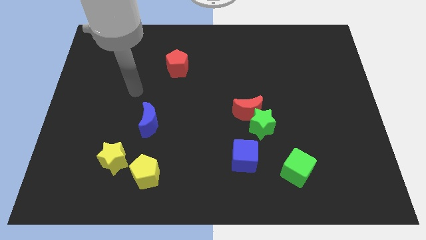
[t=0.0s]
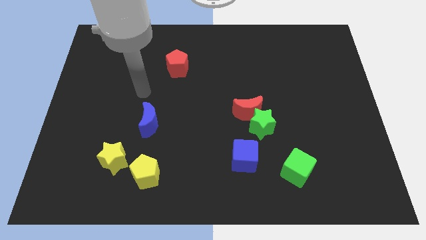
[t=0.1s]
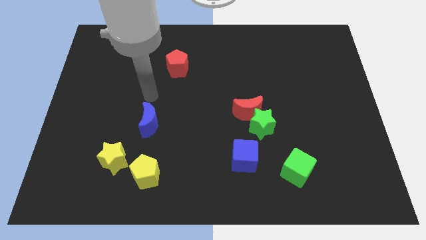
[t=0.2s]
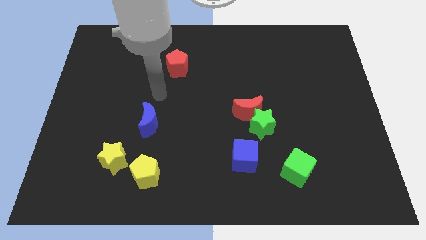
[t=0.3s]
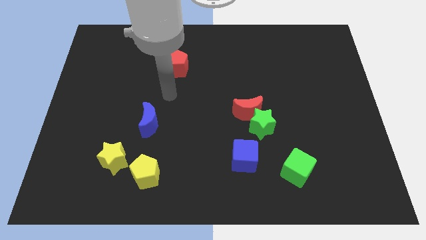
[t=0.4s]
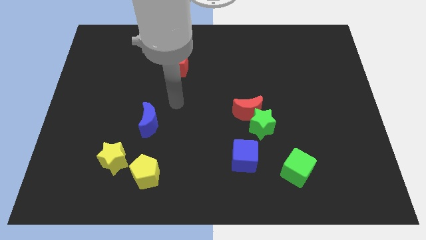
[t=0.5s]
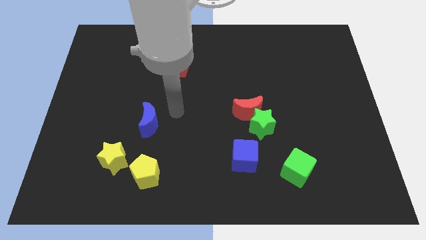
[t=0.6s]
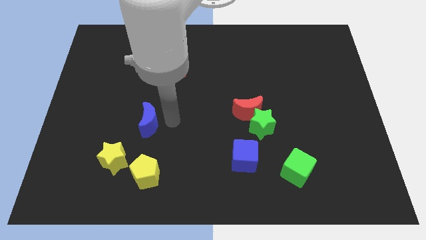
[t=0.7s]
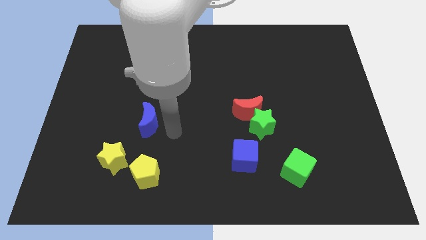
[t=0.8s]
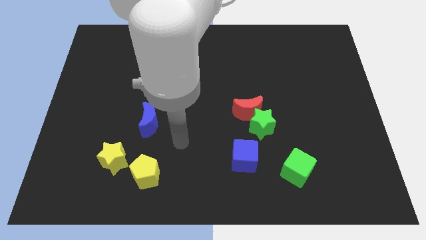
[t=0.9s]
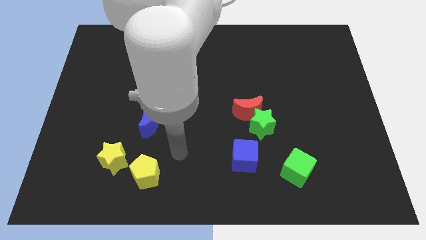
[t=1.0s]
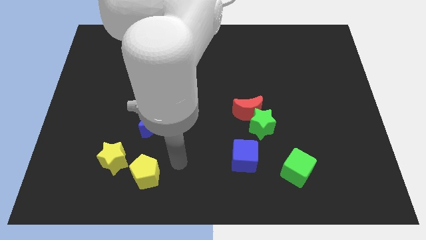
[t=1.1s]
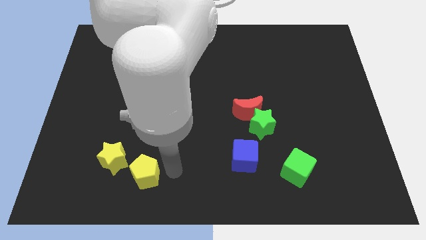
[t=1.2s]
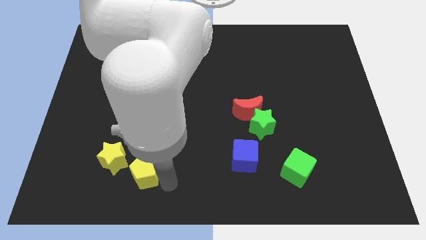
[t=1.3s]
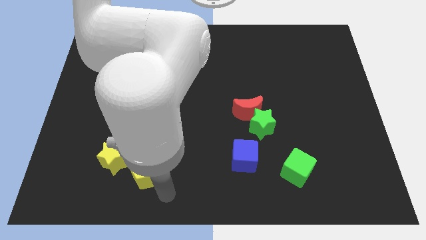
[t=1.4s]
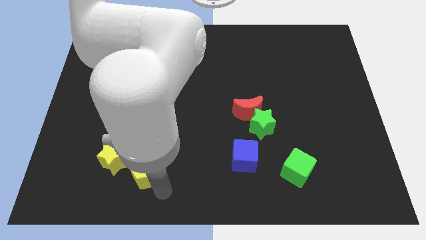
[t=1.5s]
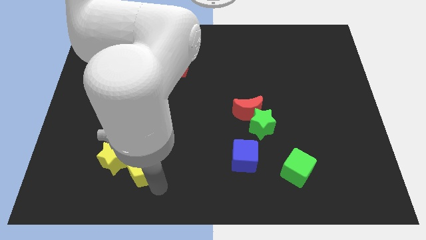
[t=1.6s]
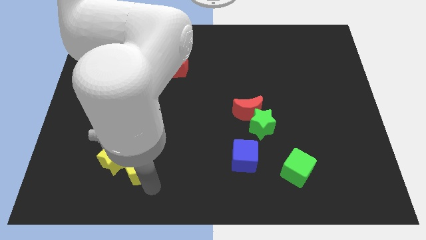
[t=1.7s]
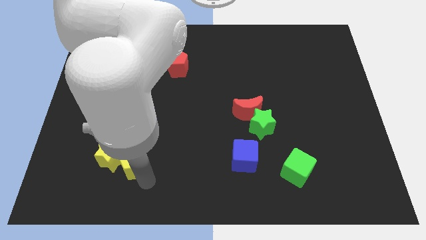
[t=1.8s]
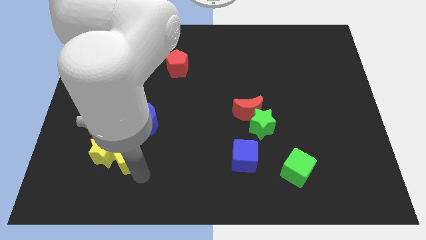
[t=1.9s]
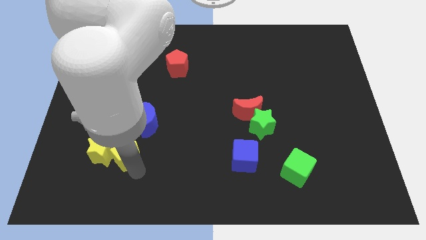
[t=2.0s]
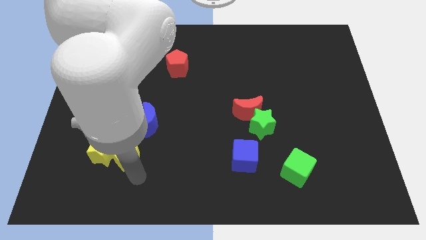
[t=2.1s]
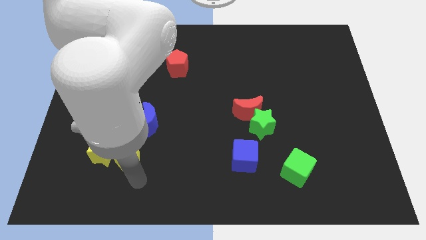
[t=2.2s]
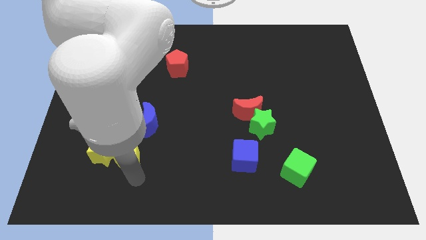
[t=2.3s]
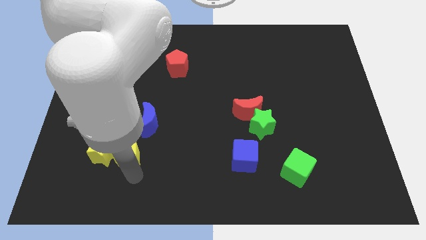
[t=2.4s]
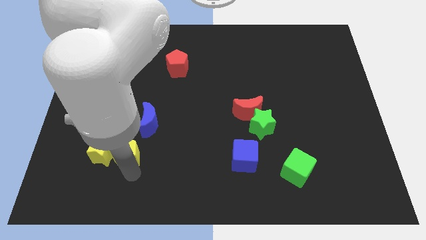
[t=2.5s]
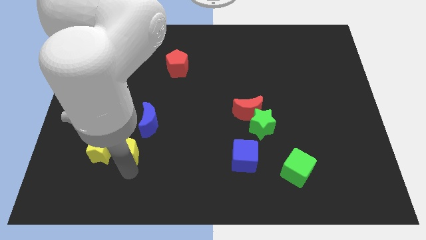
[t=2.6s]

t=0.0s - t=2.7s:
slightly move the yellow pentagon diagonally up and left

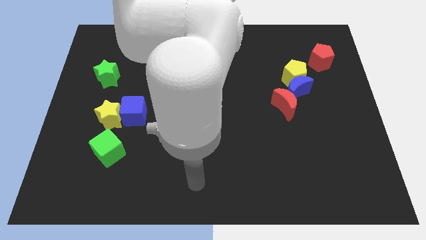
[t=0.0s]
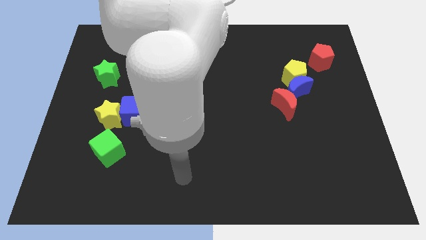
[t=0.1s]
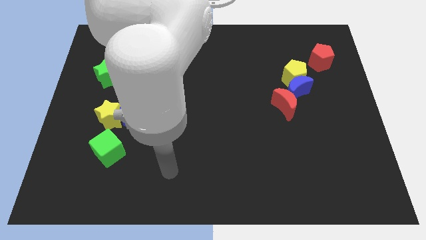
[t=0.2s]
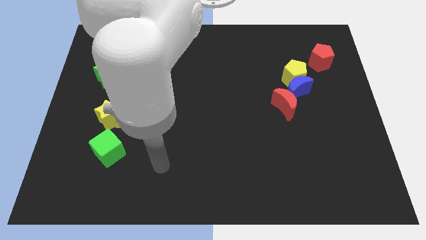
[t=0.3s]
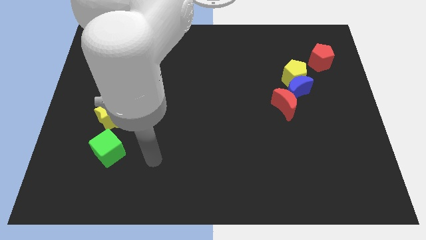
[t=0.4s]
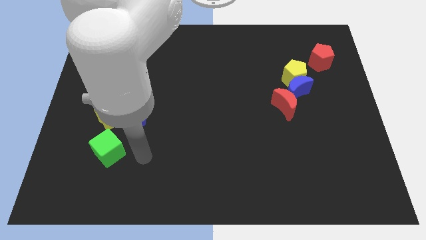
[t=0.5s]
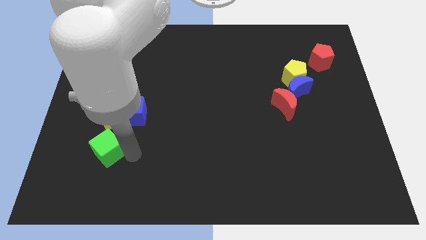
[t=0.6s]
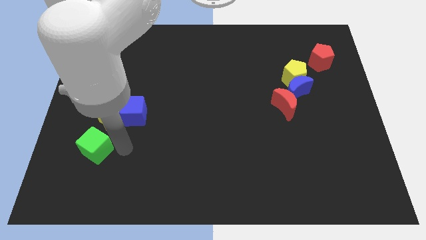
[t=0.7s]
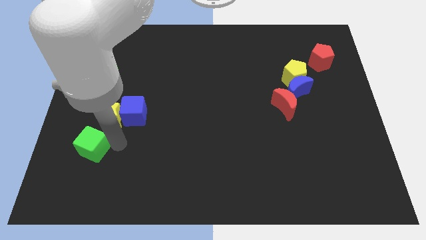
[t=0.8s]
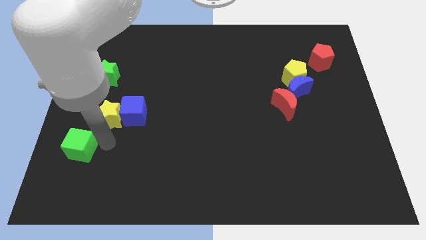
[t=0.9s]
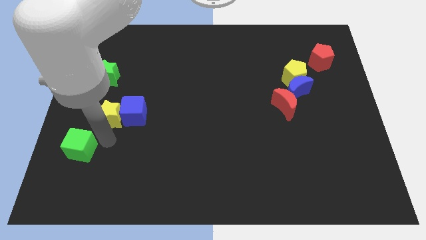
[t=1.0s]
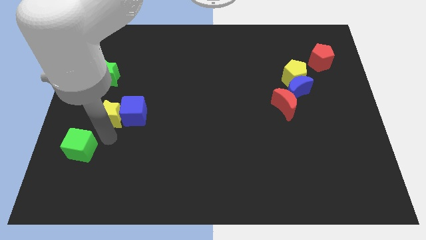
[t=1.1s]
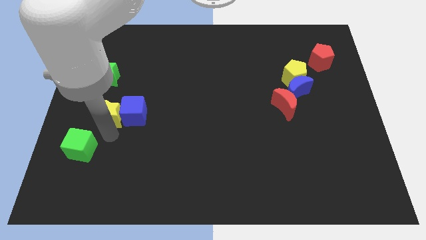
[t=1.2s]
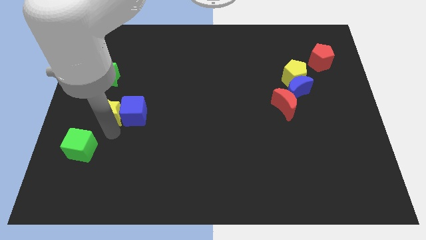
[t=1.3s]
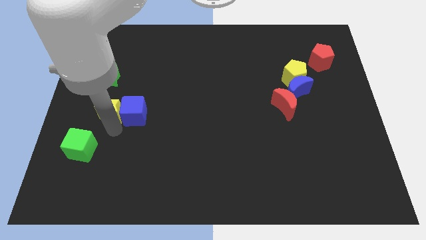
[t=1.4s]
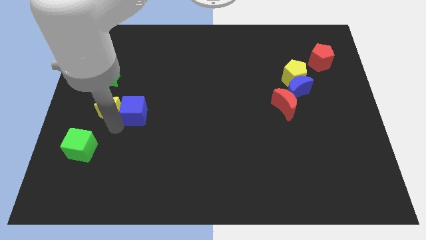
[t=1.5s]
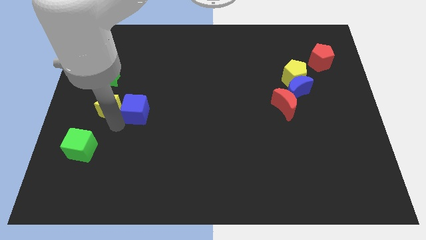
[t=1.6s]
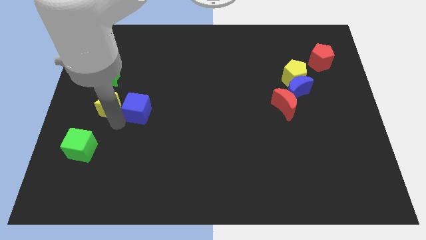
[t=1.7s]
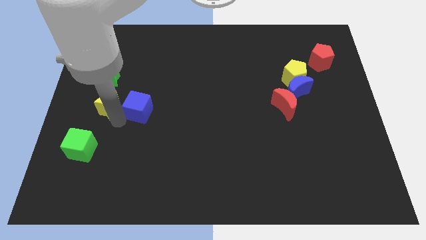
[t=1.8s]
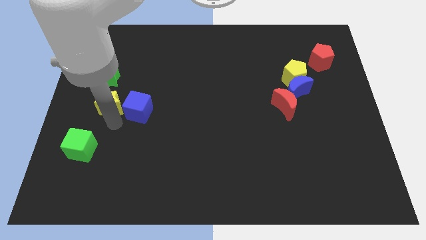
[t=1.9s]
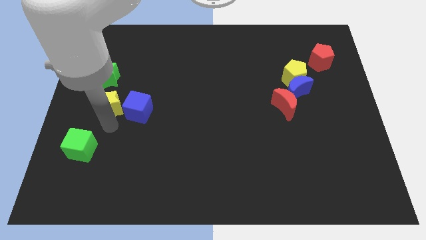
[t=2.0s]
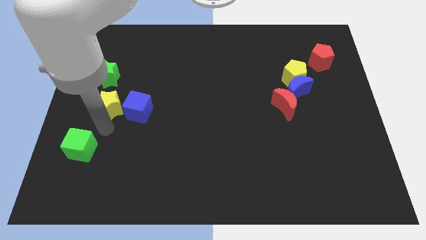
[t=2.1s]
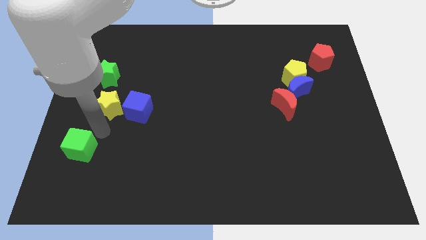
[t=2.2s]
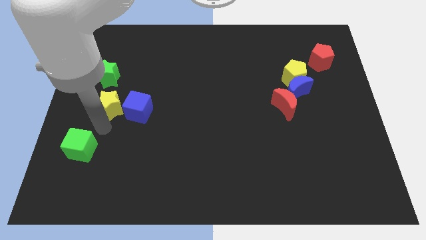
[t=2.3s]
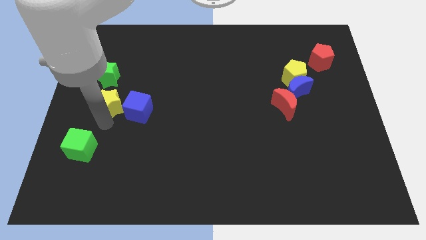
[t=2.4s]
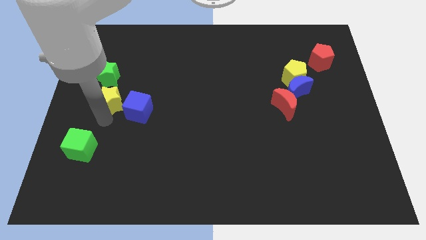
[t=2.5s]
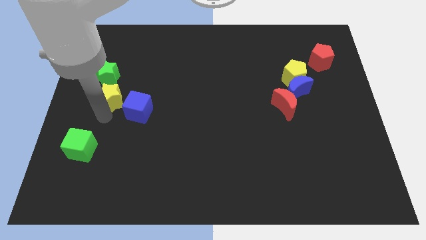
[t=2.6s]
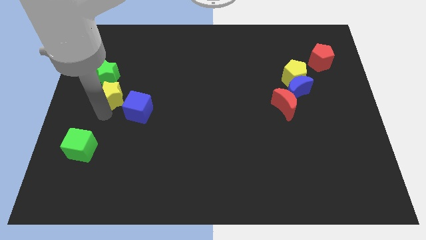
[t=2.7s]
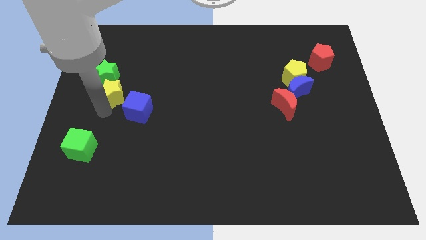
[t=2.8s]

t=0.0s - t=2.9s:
push the yellow star a bit up

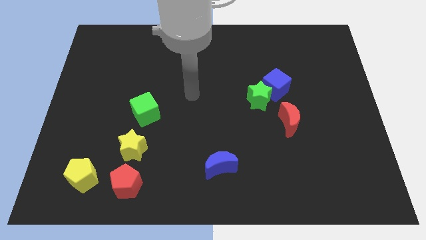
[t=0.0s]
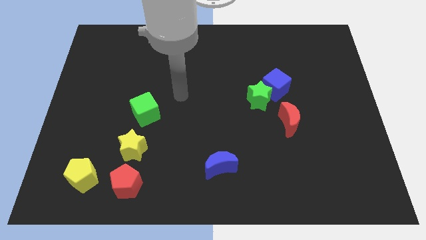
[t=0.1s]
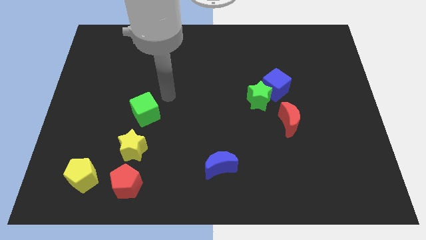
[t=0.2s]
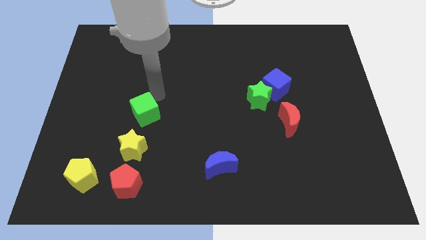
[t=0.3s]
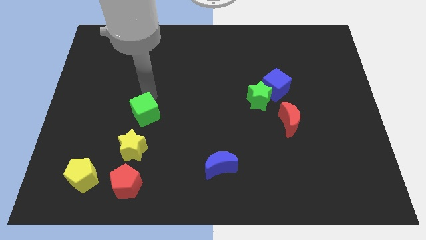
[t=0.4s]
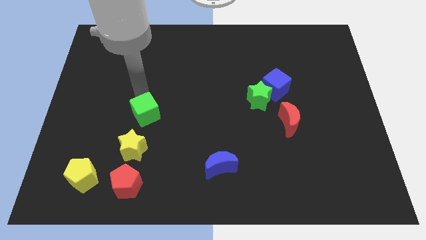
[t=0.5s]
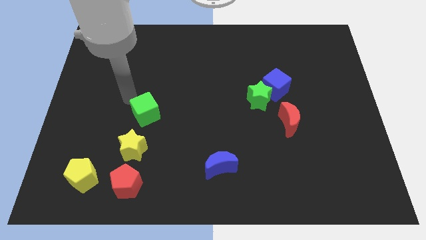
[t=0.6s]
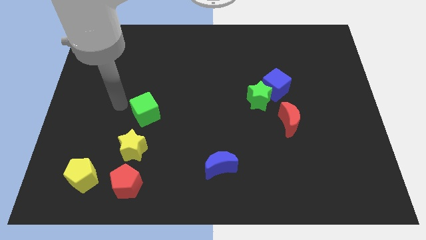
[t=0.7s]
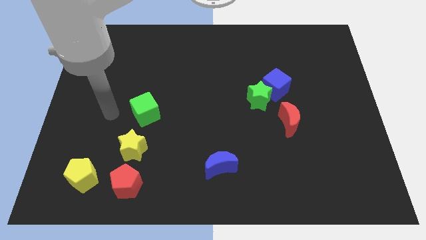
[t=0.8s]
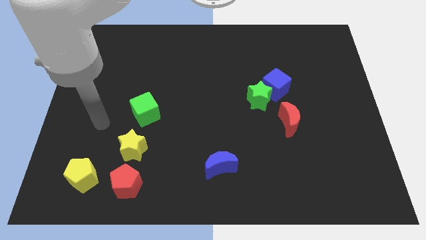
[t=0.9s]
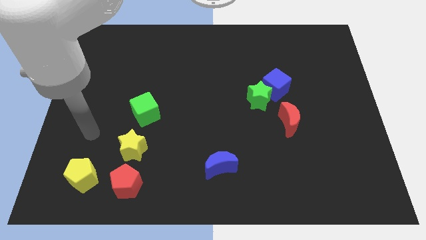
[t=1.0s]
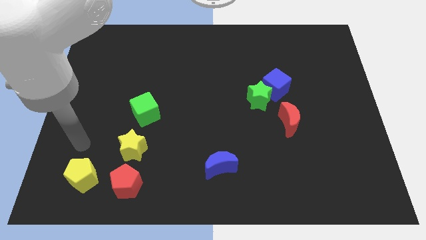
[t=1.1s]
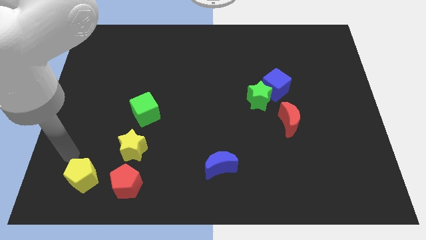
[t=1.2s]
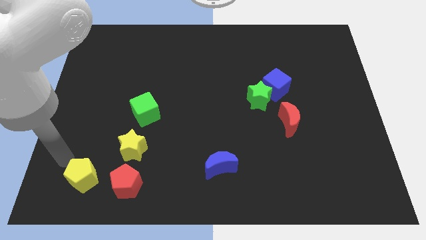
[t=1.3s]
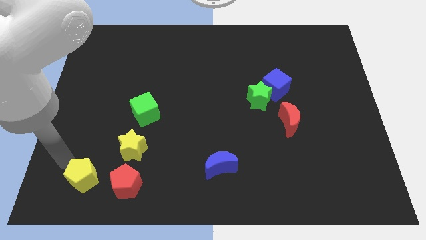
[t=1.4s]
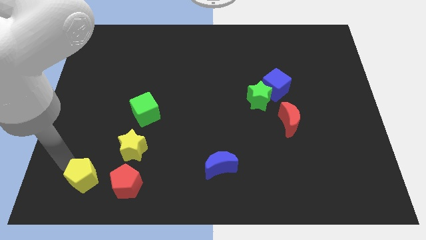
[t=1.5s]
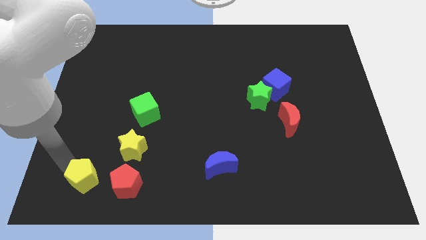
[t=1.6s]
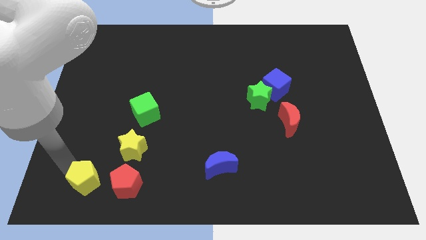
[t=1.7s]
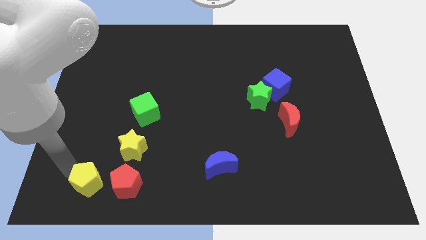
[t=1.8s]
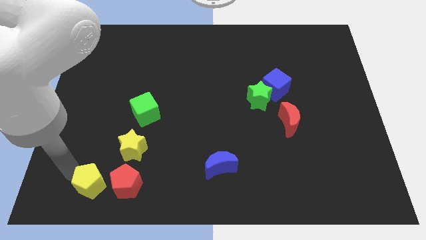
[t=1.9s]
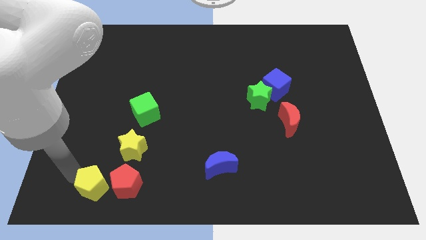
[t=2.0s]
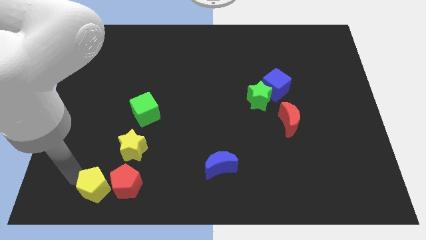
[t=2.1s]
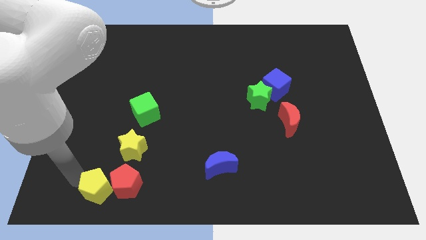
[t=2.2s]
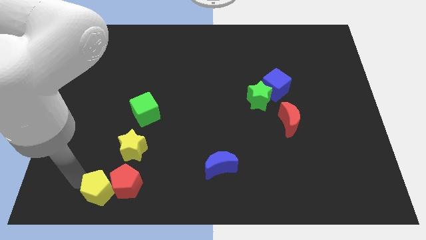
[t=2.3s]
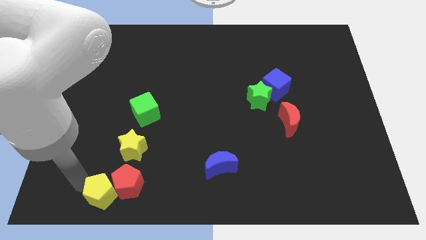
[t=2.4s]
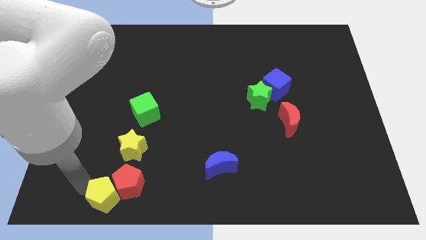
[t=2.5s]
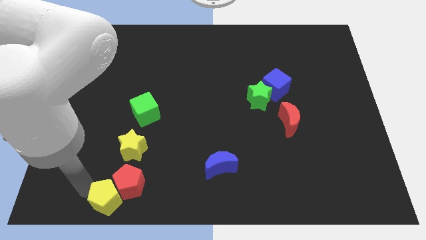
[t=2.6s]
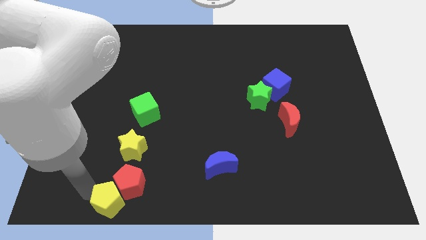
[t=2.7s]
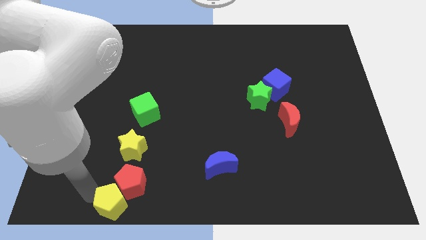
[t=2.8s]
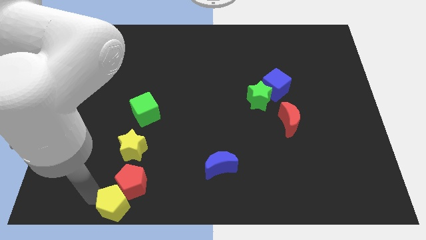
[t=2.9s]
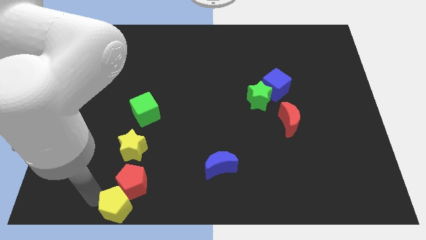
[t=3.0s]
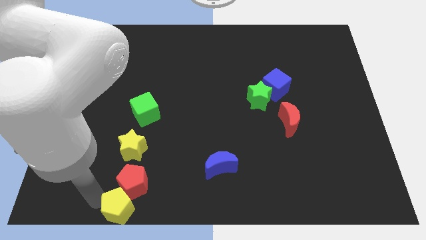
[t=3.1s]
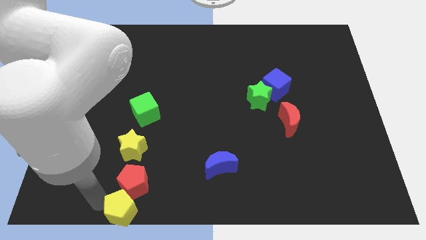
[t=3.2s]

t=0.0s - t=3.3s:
push the yellow pentagon somewhat to the right
